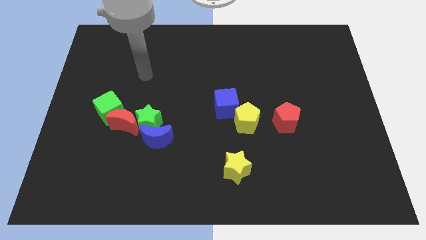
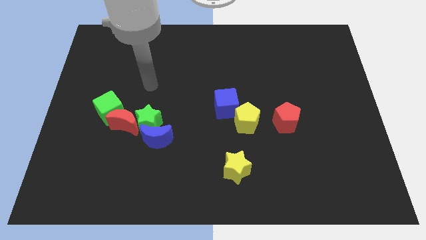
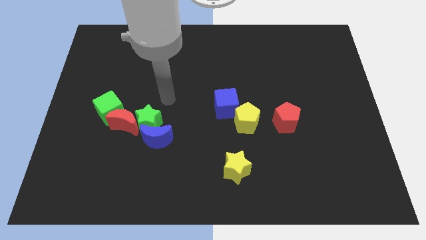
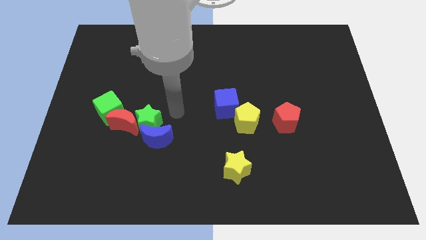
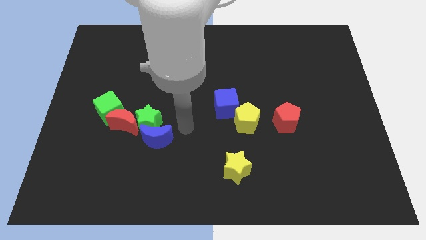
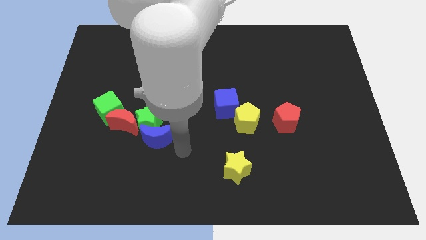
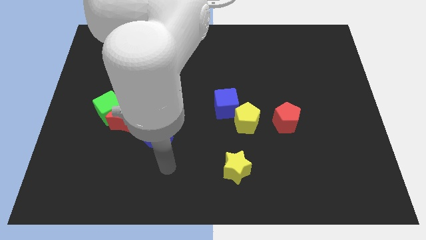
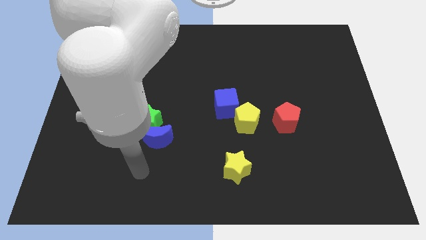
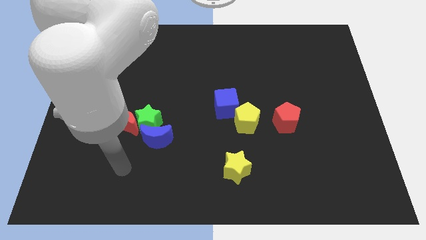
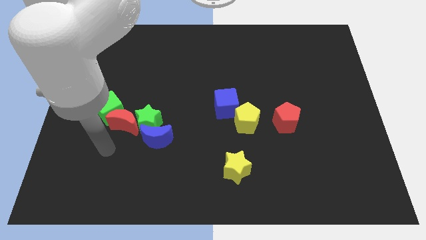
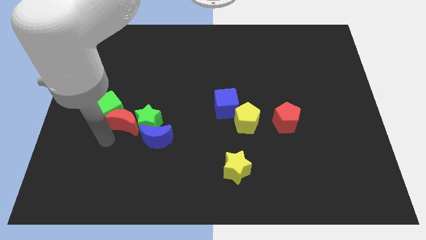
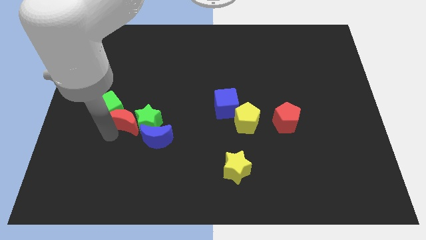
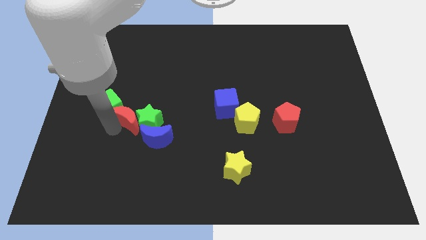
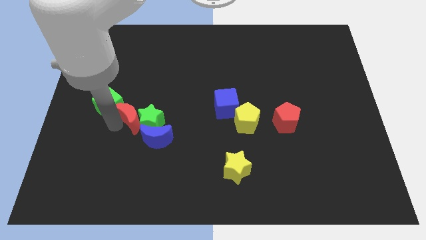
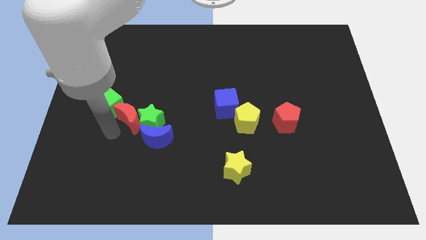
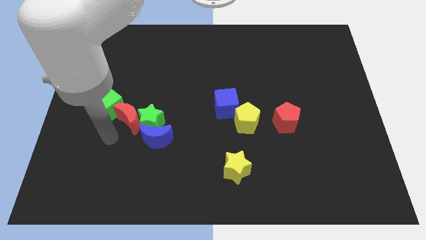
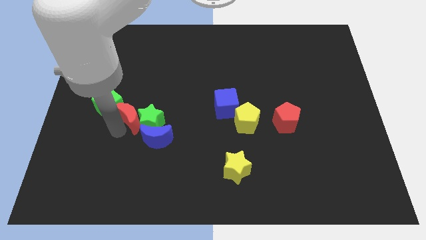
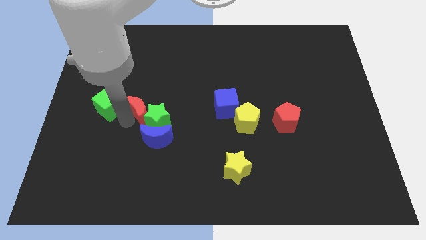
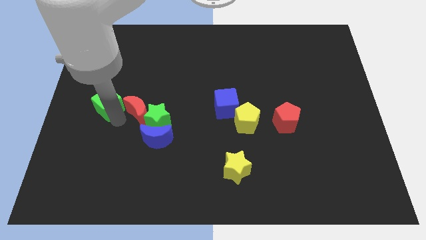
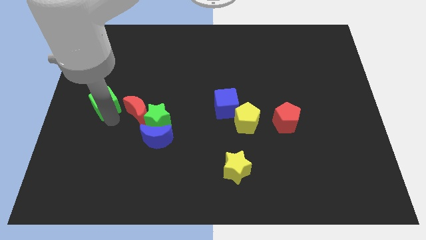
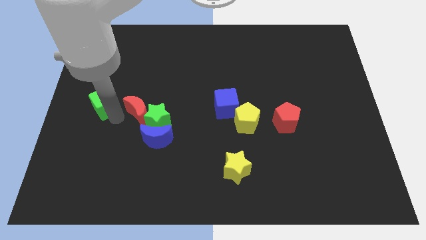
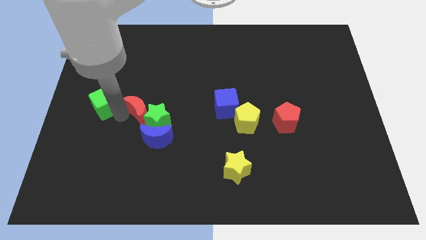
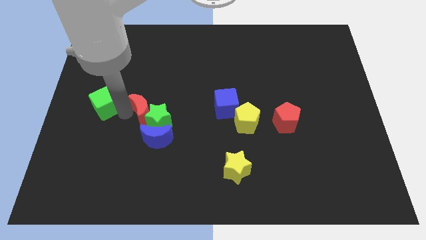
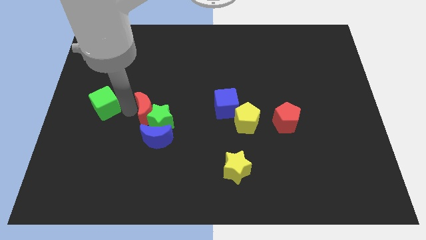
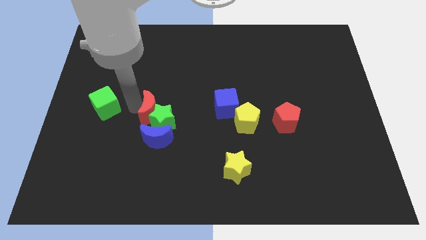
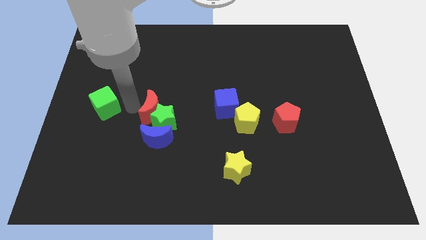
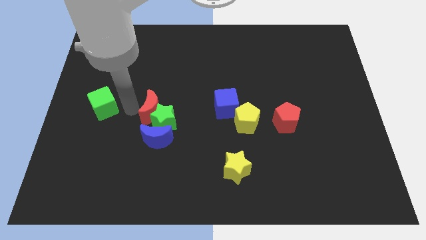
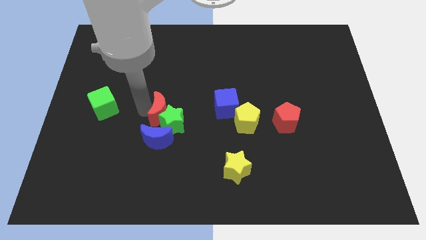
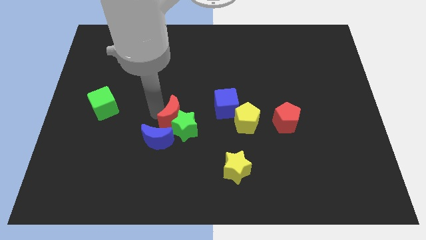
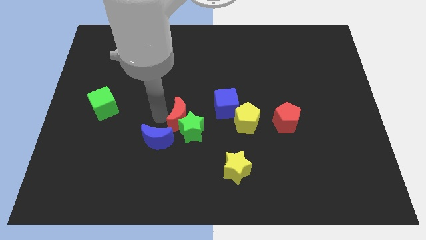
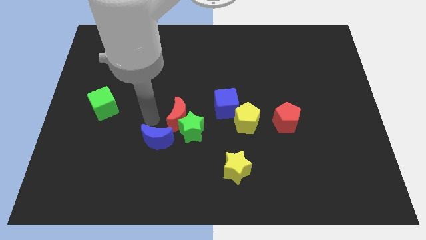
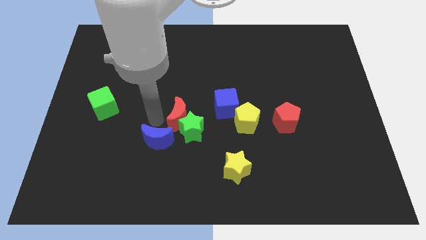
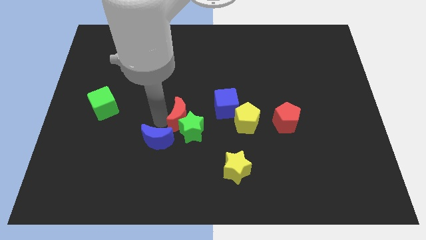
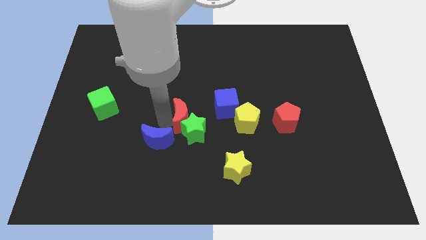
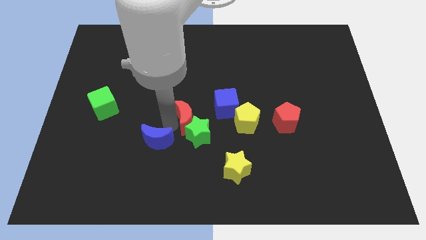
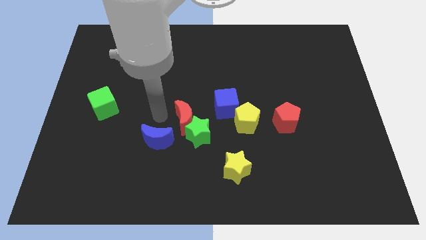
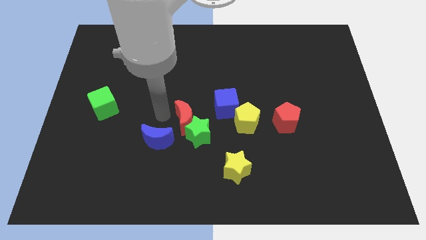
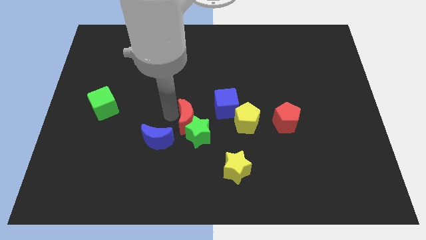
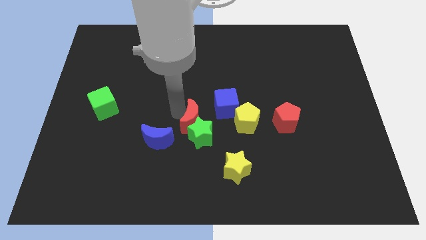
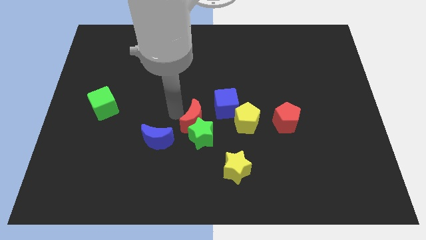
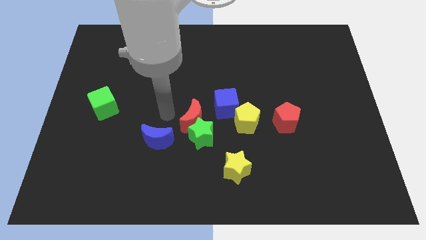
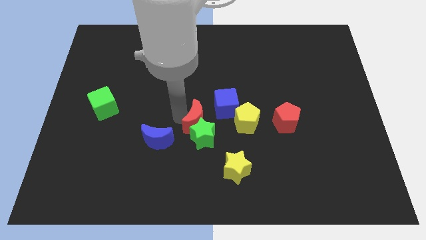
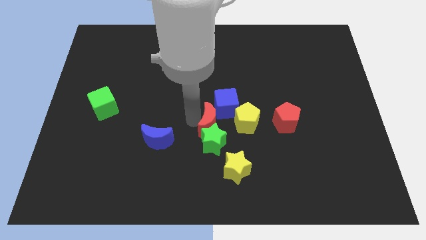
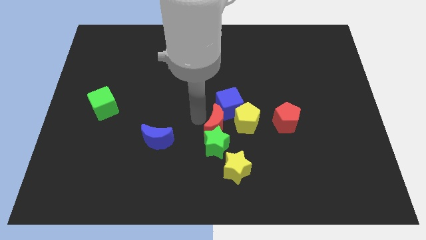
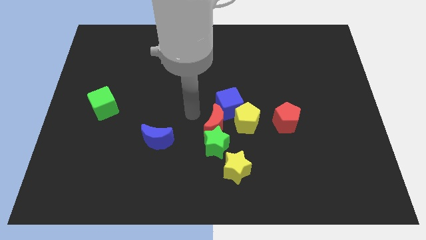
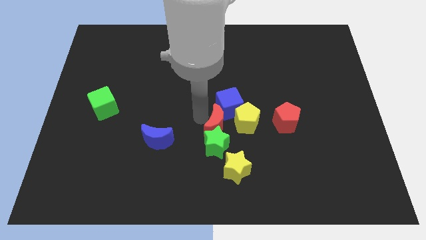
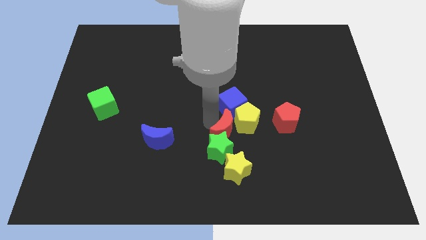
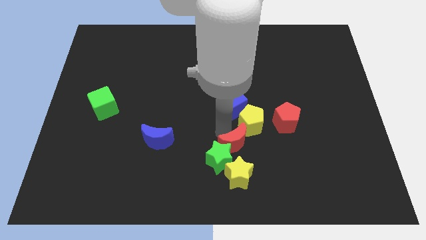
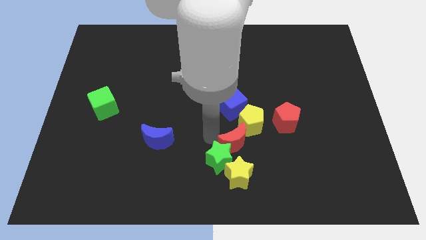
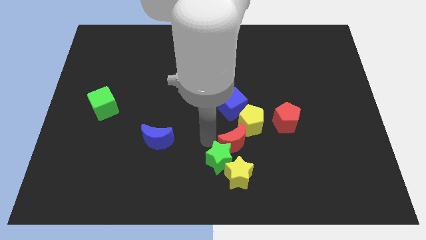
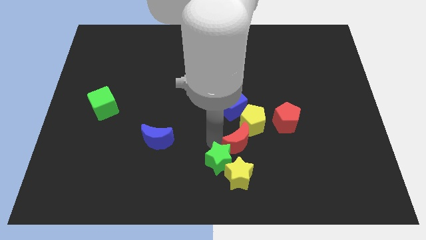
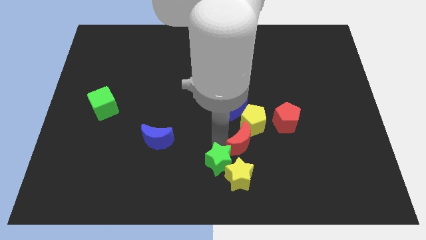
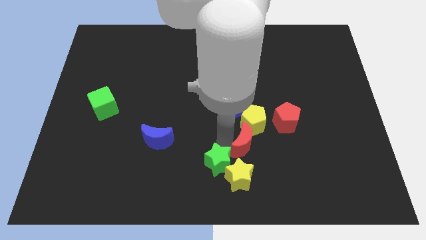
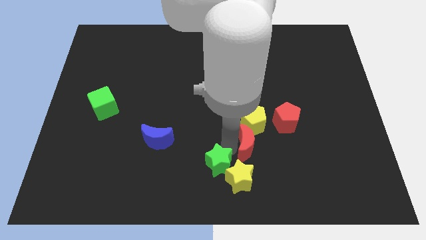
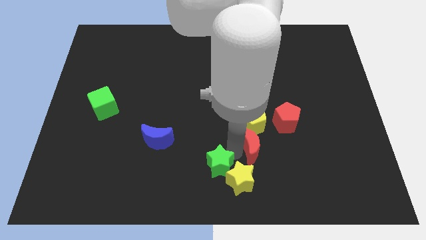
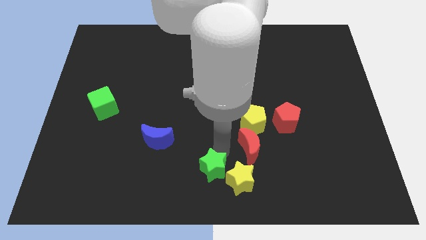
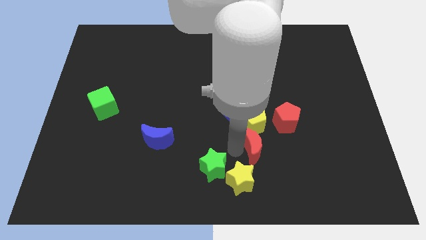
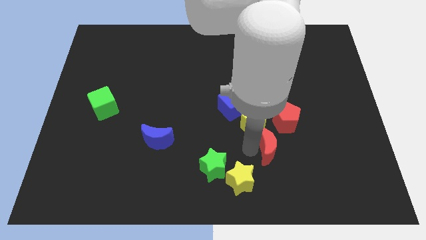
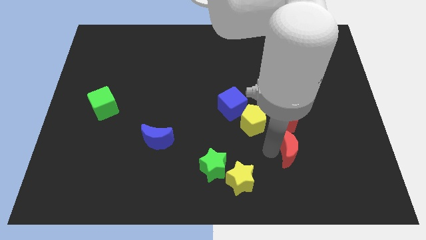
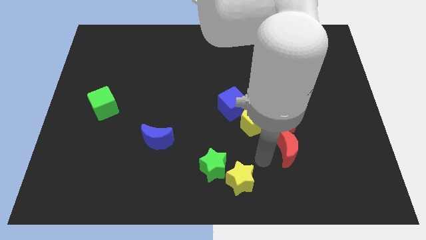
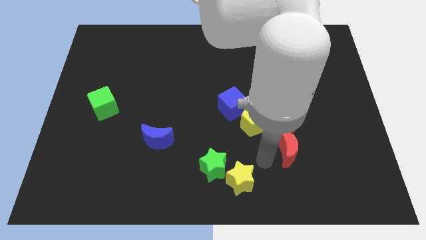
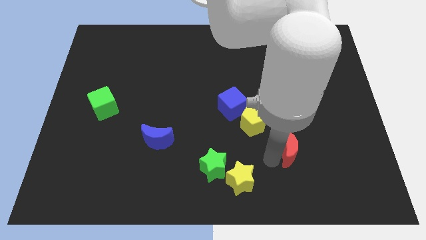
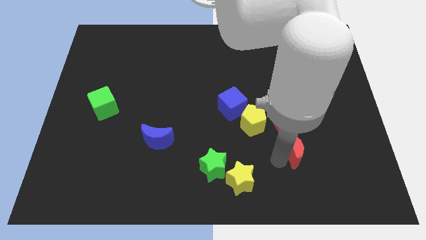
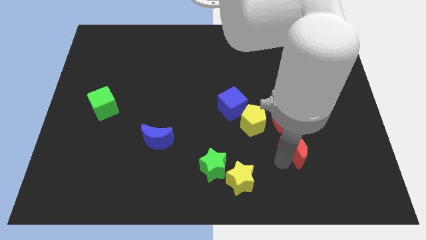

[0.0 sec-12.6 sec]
put the red moon diagonally down and to the right of the red pentagon

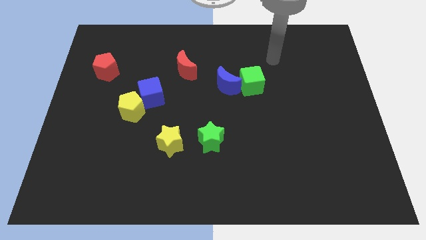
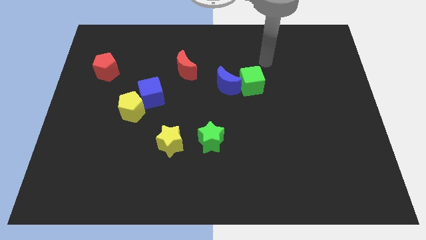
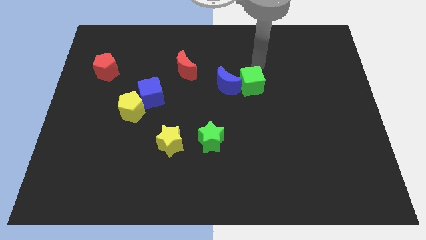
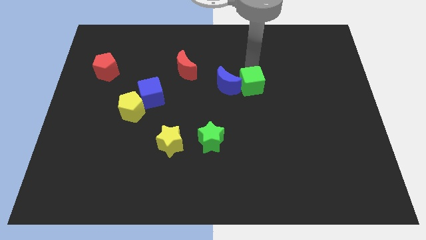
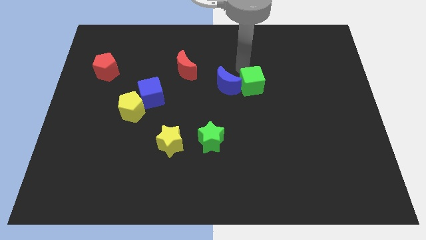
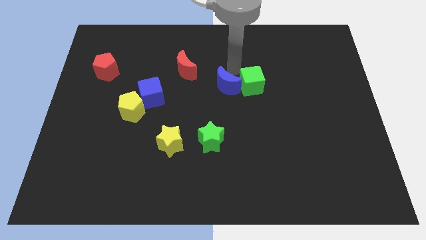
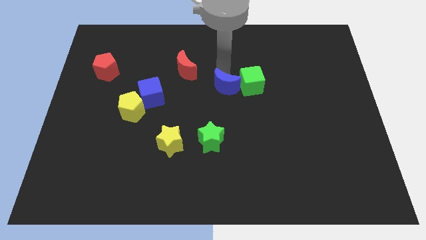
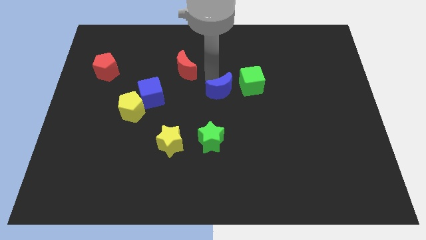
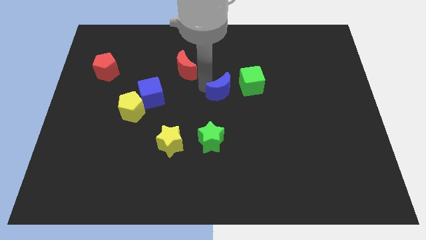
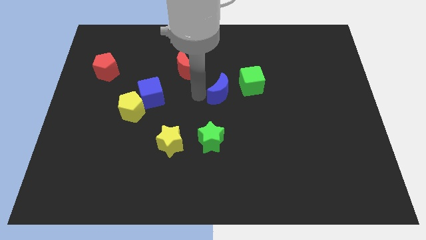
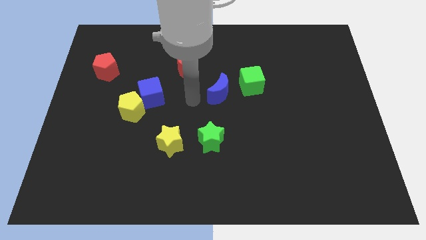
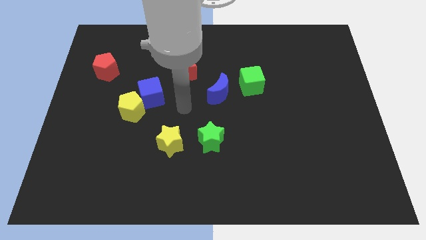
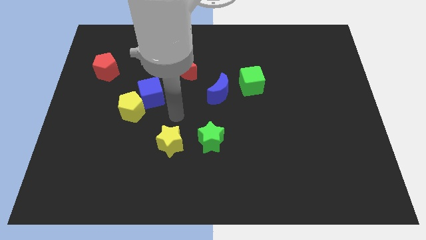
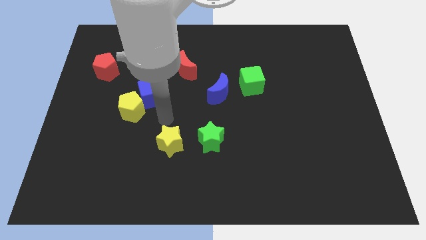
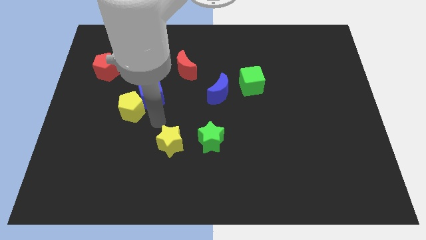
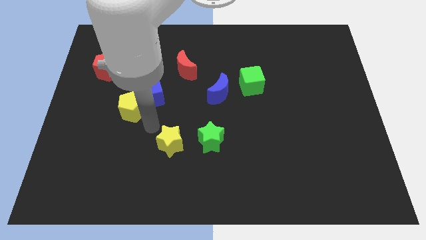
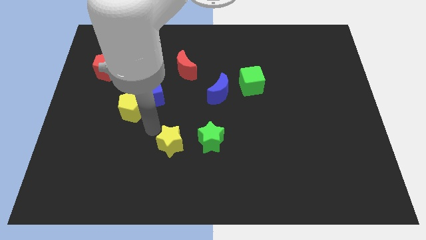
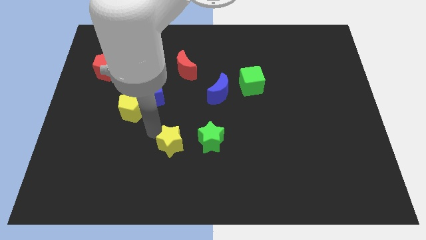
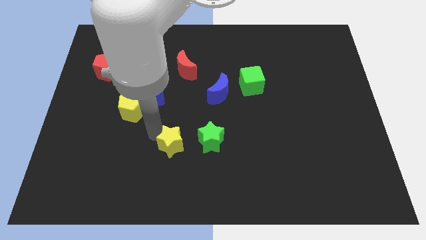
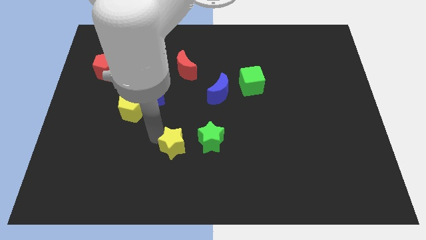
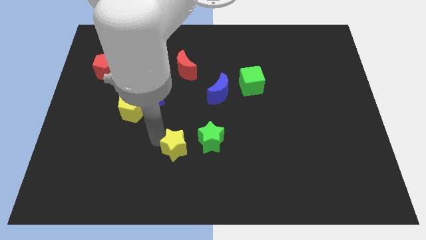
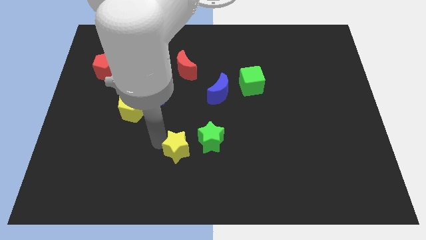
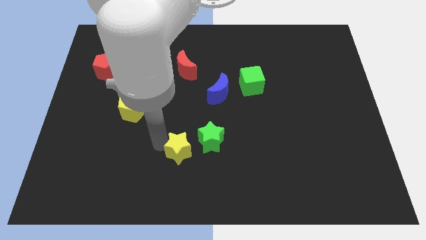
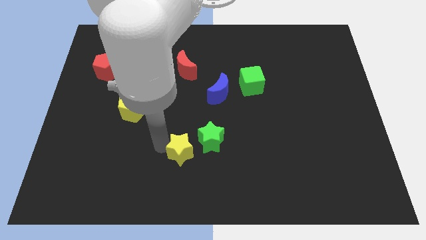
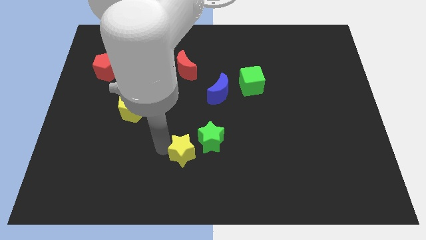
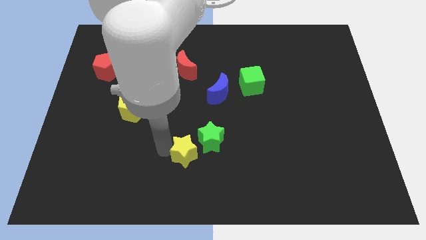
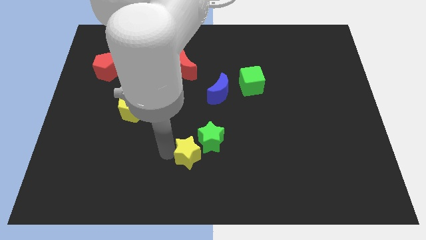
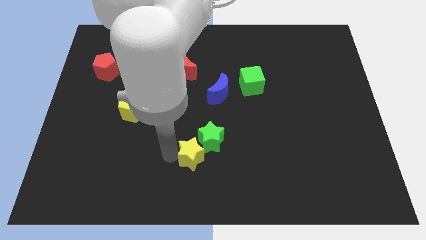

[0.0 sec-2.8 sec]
push the yellow star to the bottom of the green star
